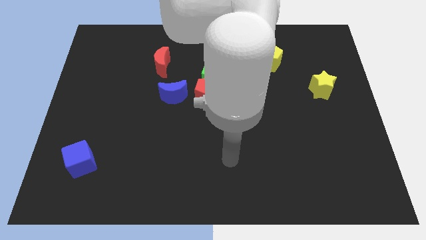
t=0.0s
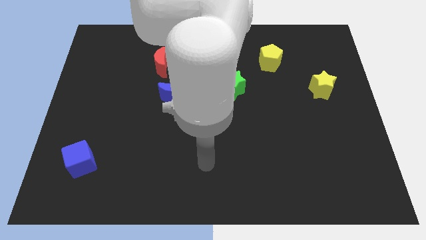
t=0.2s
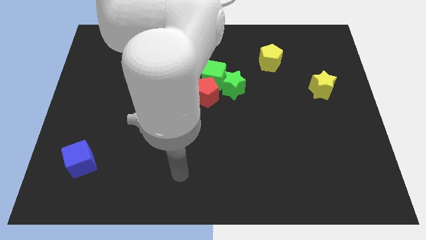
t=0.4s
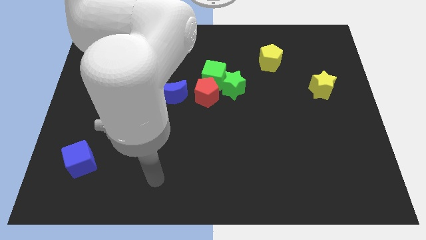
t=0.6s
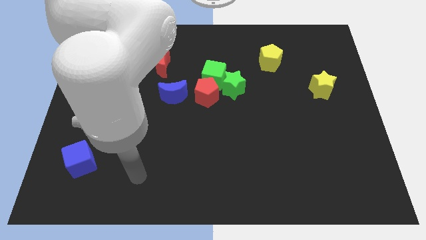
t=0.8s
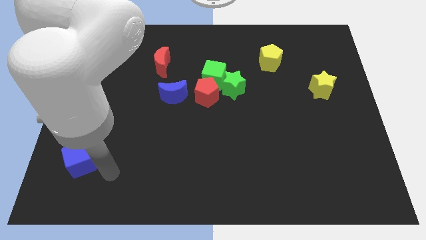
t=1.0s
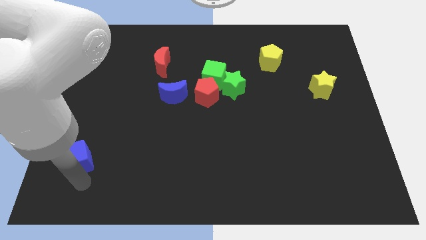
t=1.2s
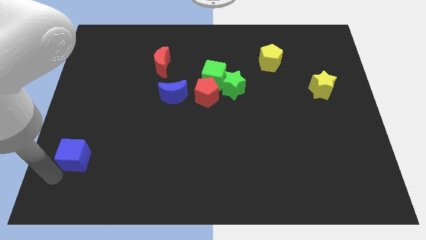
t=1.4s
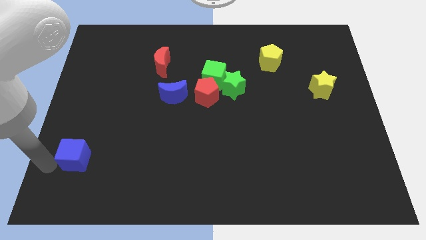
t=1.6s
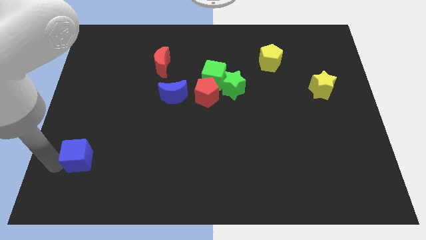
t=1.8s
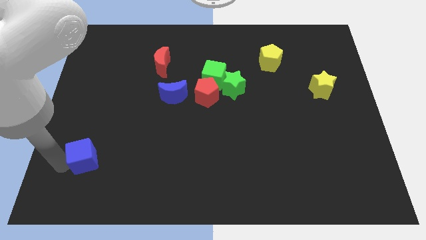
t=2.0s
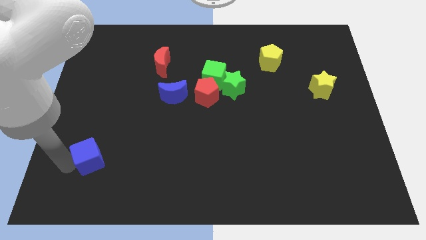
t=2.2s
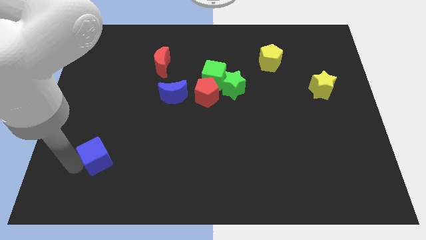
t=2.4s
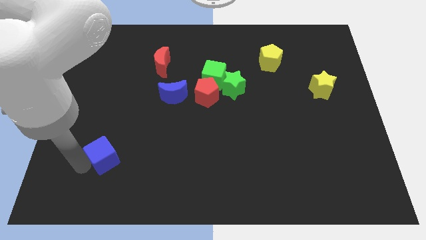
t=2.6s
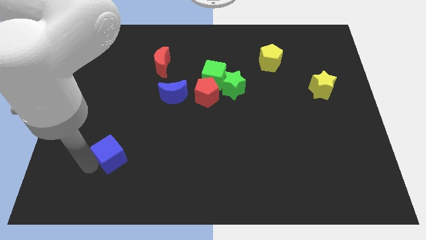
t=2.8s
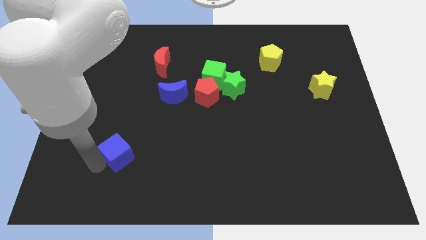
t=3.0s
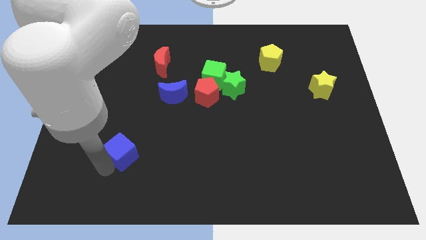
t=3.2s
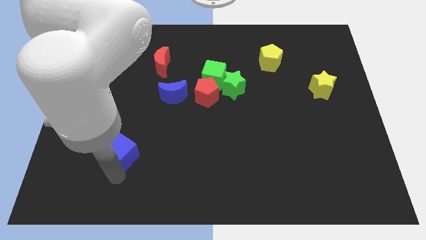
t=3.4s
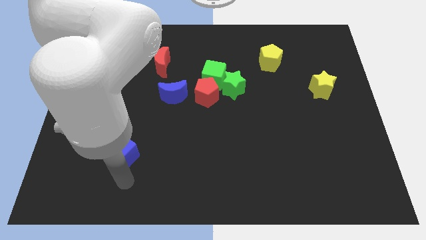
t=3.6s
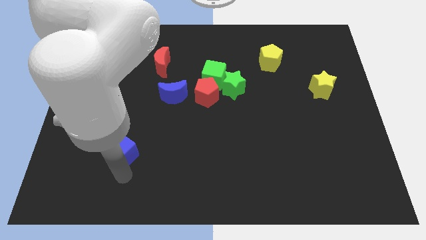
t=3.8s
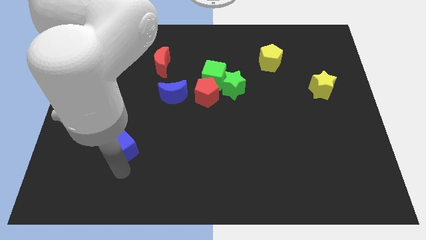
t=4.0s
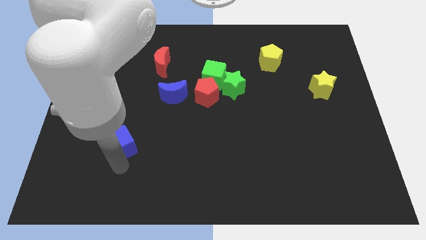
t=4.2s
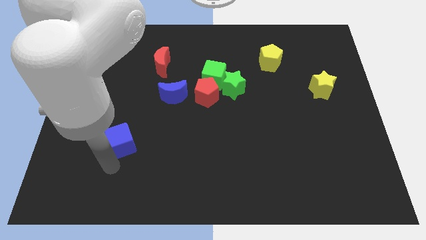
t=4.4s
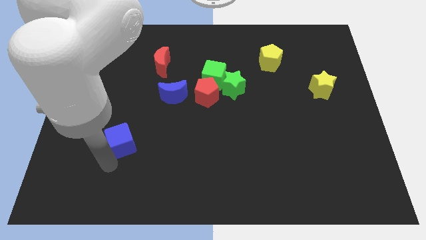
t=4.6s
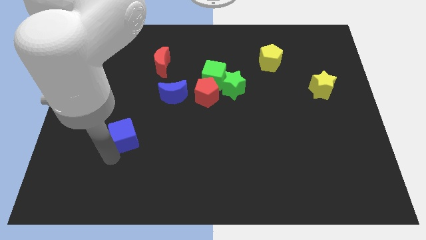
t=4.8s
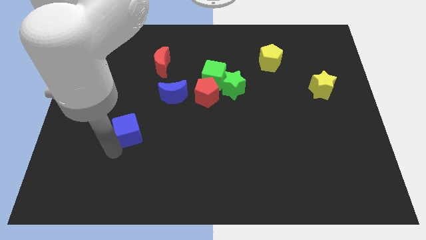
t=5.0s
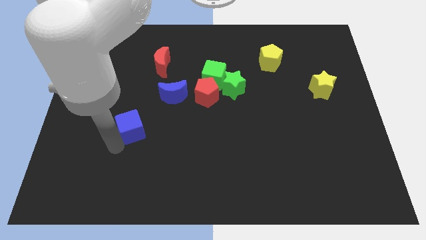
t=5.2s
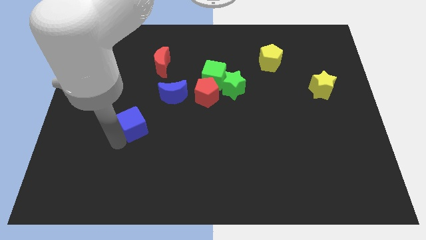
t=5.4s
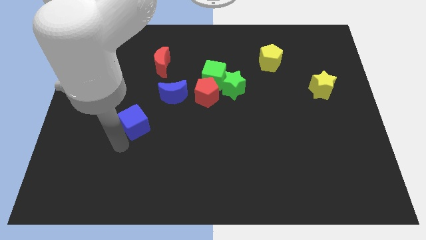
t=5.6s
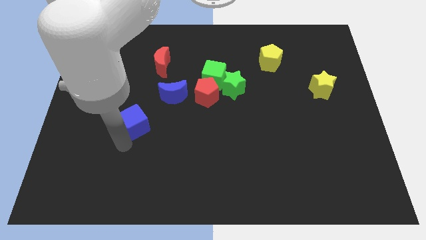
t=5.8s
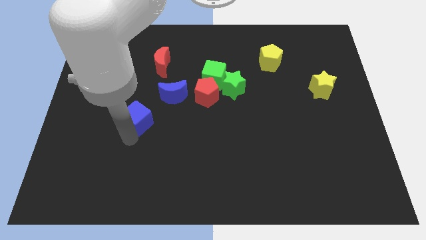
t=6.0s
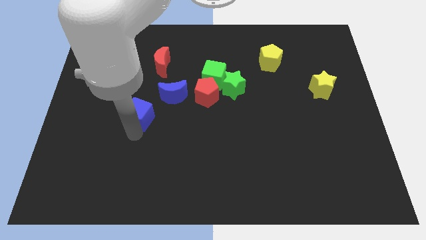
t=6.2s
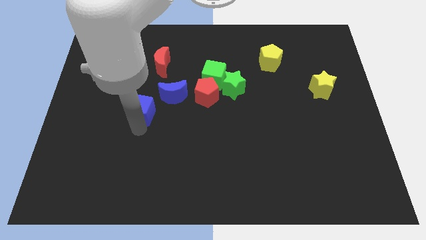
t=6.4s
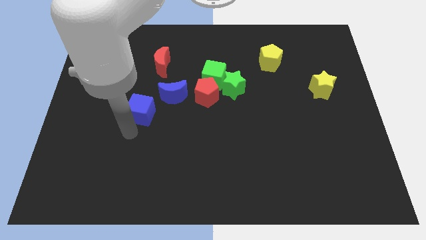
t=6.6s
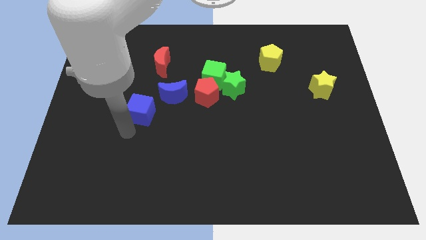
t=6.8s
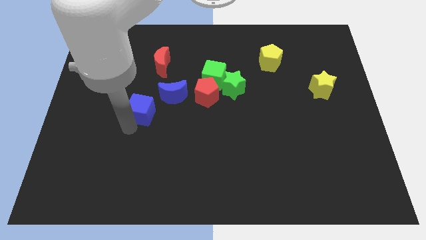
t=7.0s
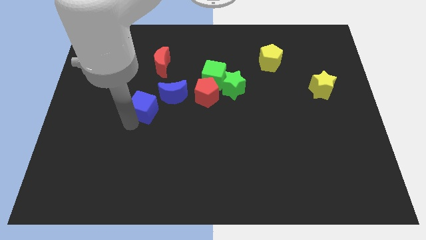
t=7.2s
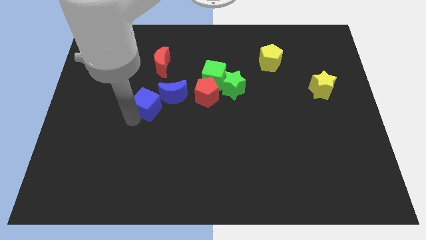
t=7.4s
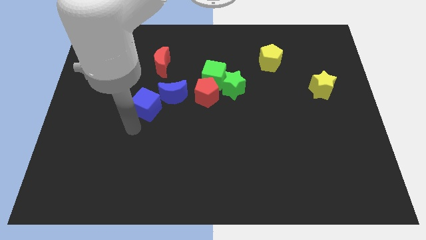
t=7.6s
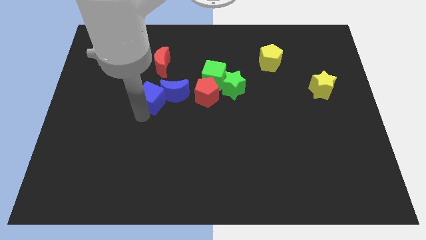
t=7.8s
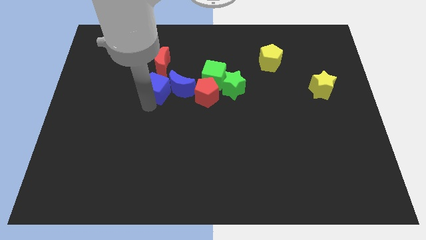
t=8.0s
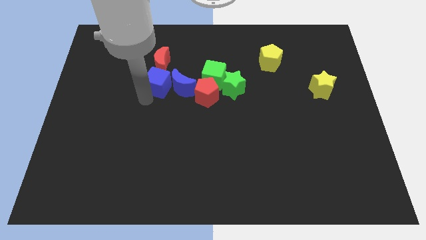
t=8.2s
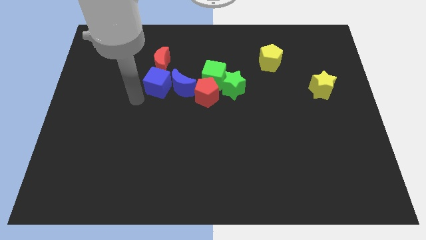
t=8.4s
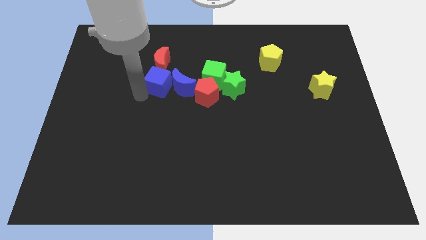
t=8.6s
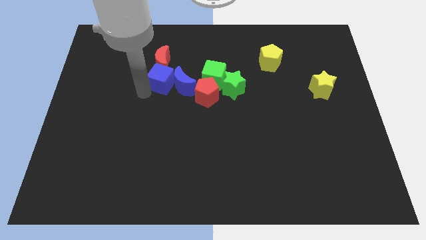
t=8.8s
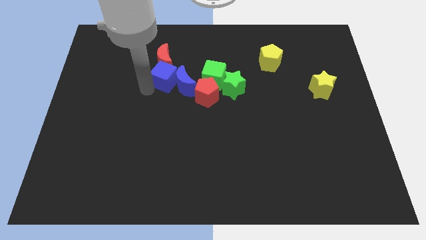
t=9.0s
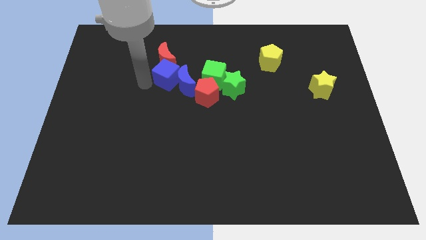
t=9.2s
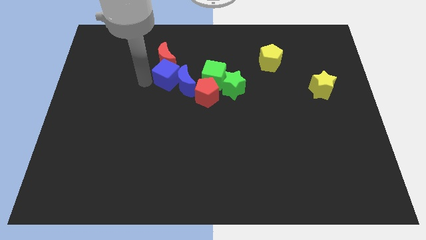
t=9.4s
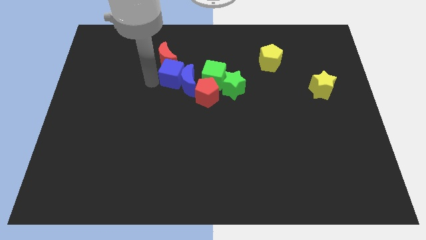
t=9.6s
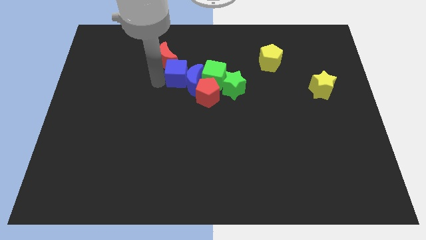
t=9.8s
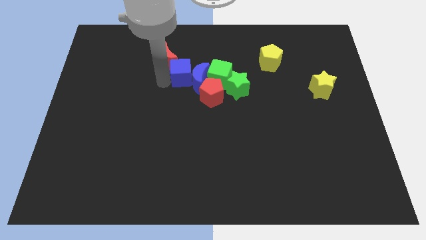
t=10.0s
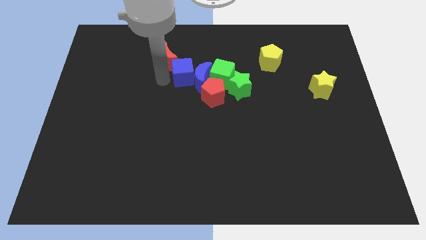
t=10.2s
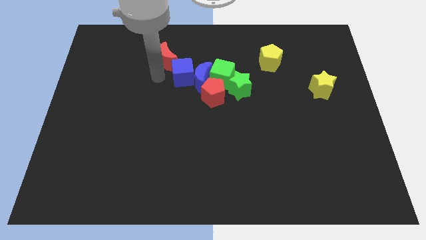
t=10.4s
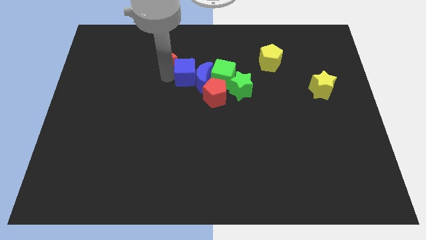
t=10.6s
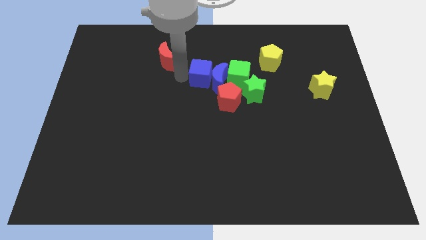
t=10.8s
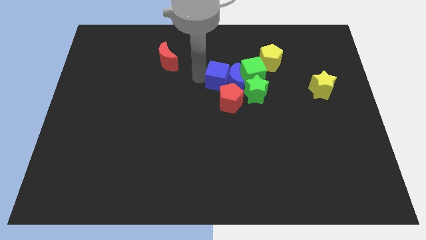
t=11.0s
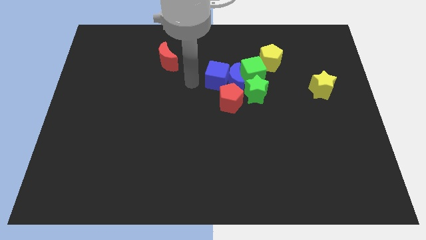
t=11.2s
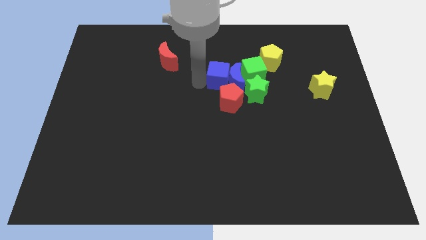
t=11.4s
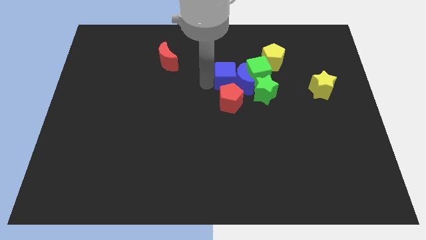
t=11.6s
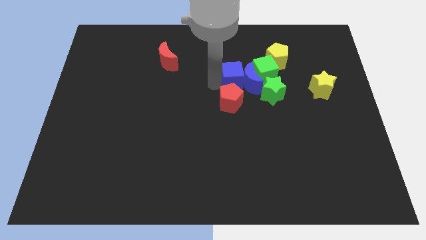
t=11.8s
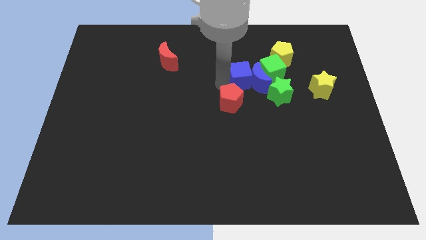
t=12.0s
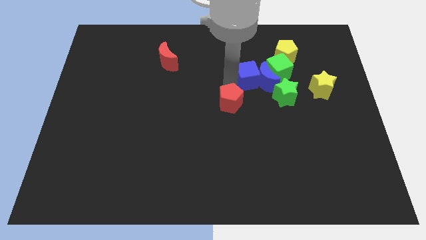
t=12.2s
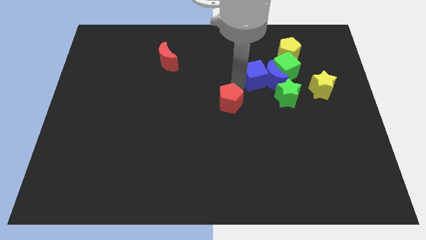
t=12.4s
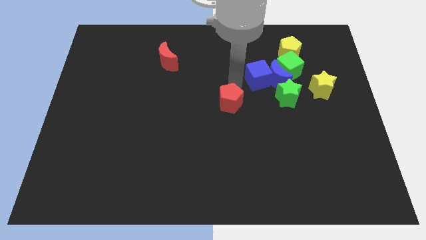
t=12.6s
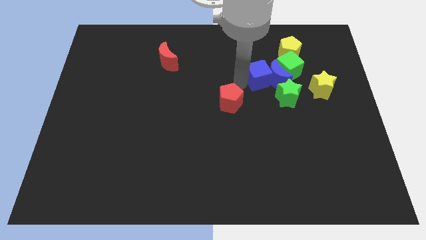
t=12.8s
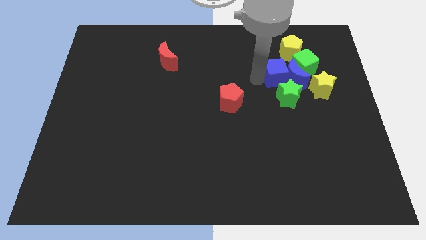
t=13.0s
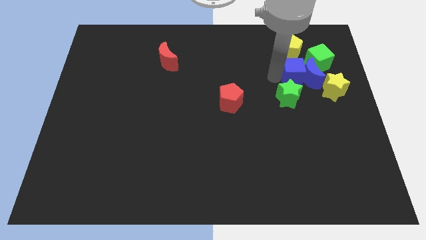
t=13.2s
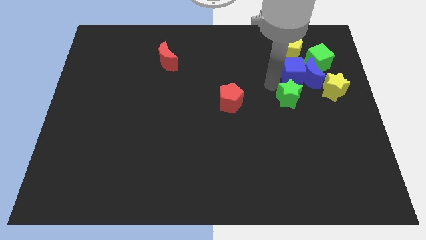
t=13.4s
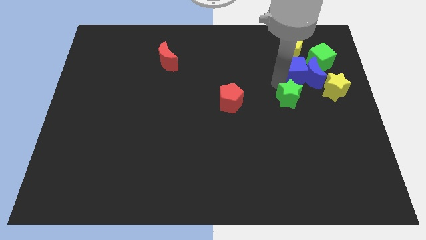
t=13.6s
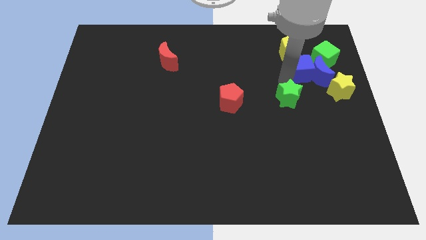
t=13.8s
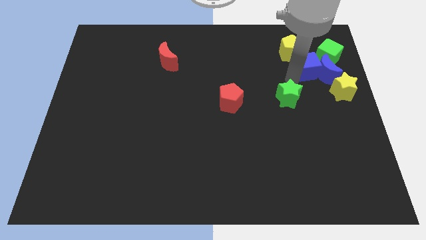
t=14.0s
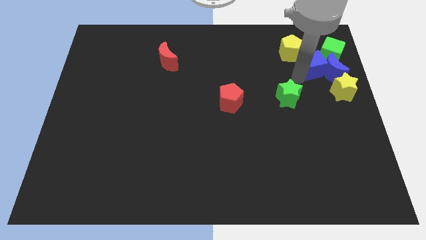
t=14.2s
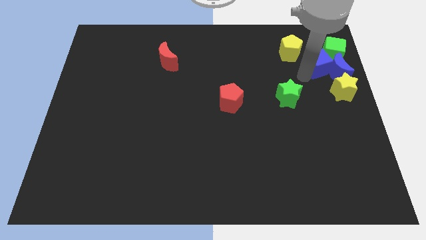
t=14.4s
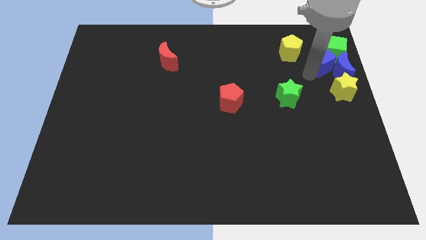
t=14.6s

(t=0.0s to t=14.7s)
push the blue cube close to the green cube

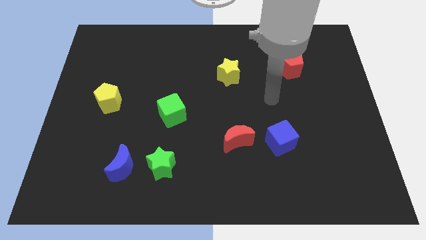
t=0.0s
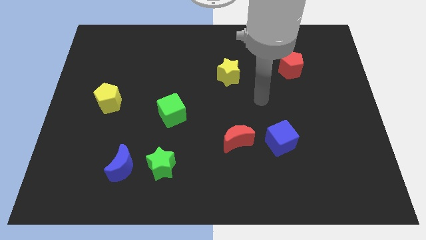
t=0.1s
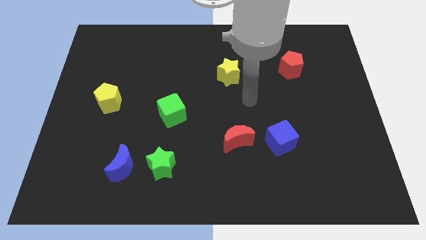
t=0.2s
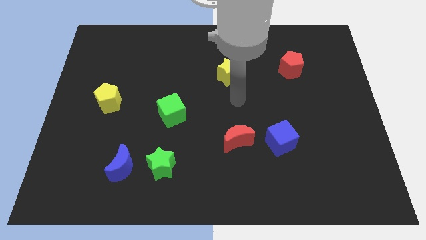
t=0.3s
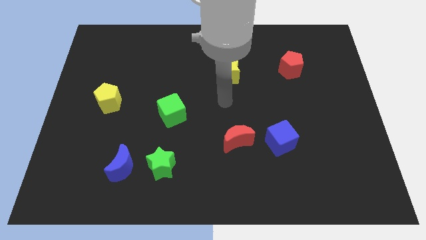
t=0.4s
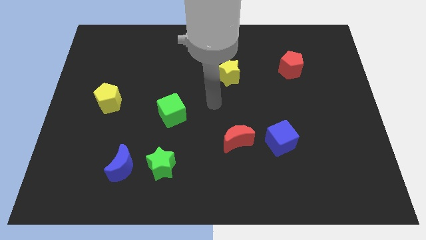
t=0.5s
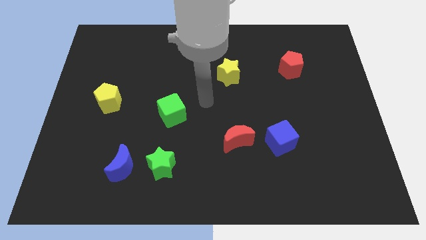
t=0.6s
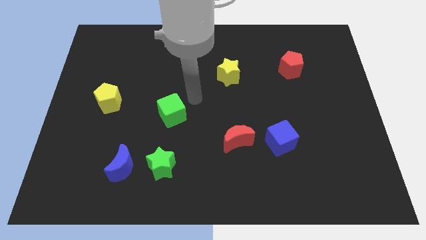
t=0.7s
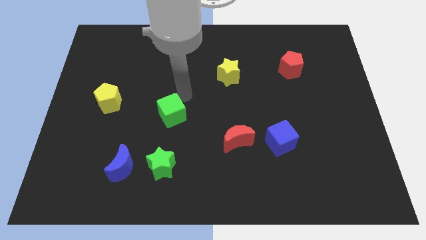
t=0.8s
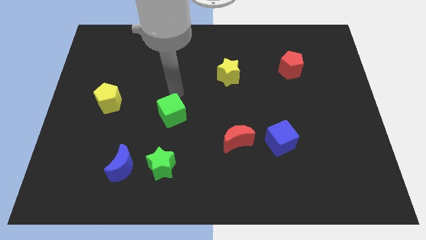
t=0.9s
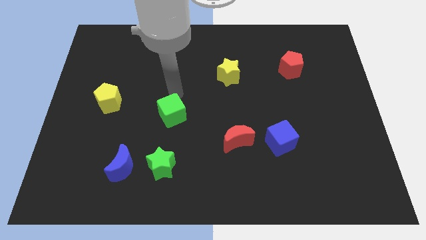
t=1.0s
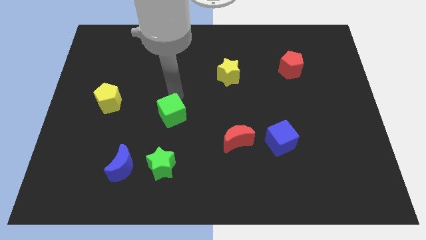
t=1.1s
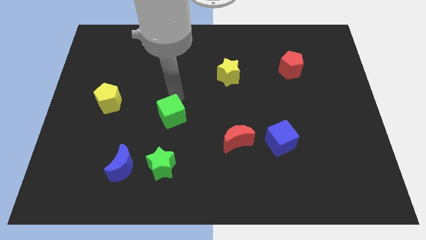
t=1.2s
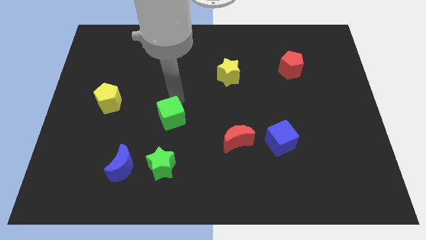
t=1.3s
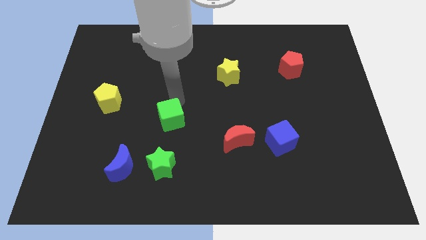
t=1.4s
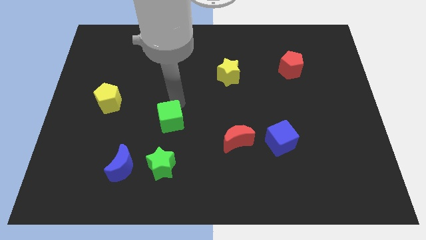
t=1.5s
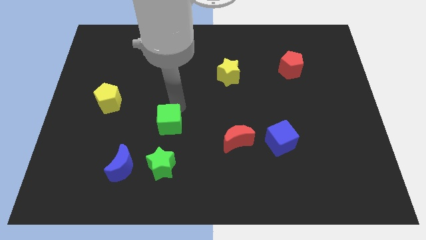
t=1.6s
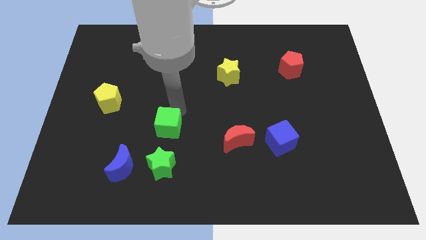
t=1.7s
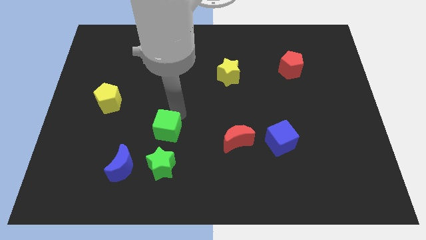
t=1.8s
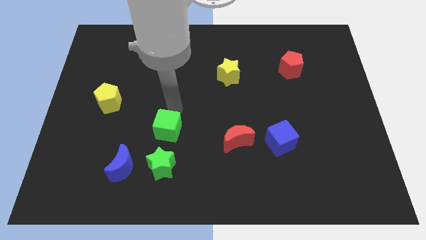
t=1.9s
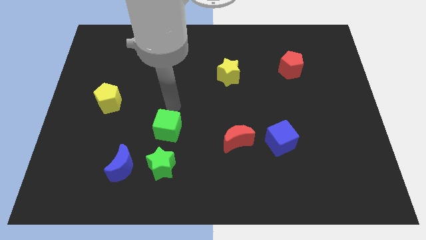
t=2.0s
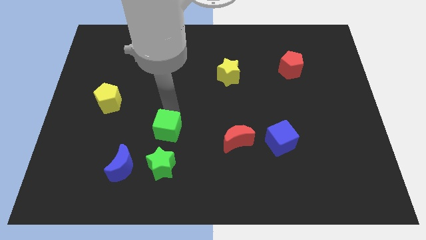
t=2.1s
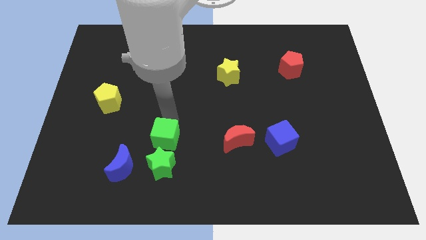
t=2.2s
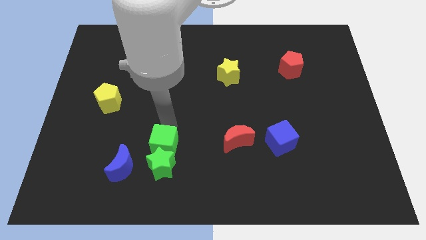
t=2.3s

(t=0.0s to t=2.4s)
move the green cube to the green star
